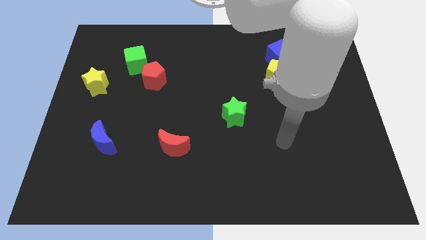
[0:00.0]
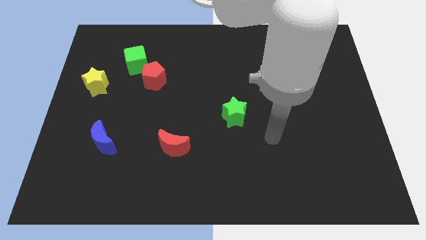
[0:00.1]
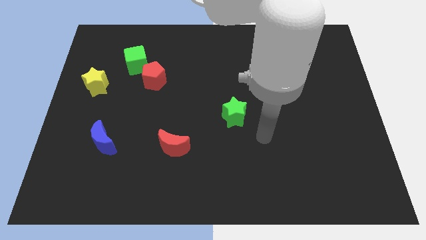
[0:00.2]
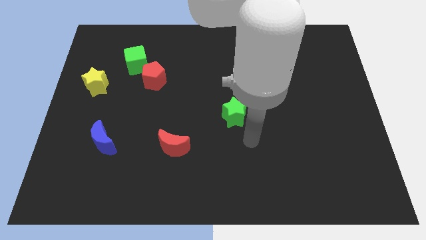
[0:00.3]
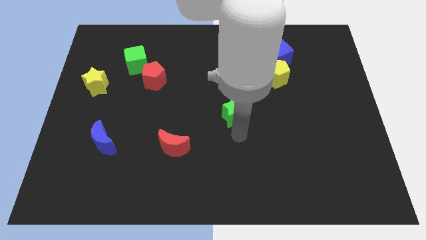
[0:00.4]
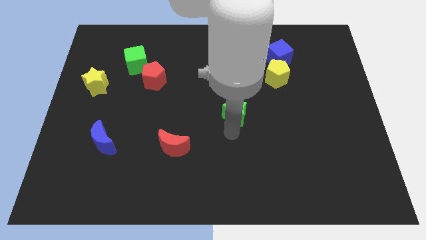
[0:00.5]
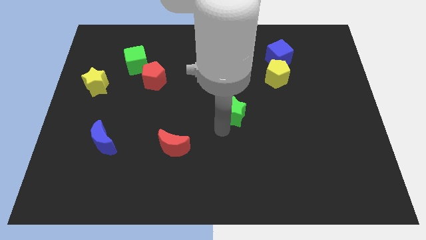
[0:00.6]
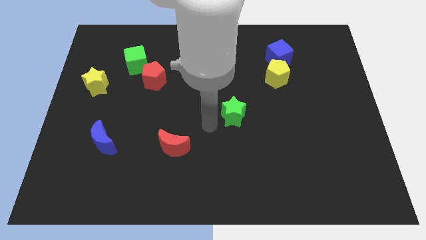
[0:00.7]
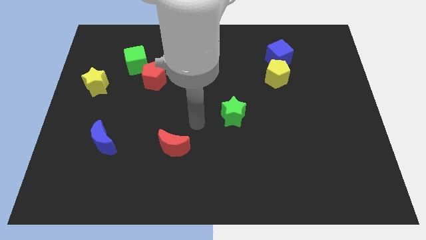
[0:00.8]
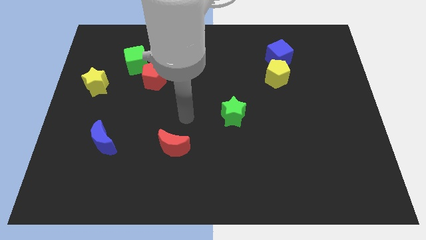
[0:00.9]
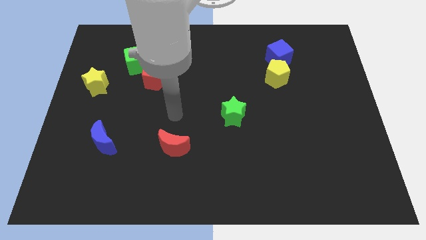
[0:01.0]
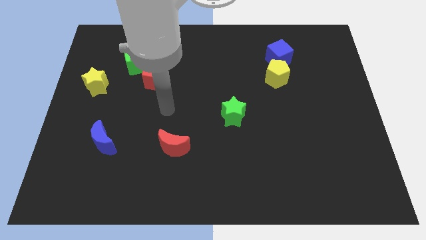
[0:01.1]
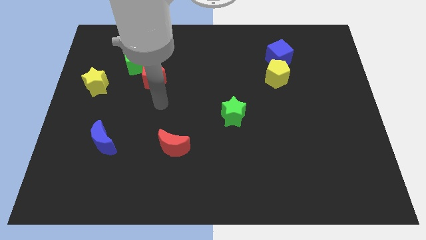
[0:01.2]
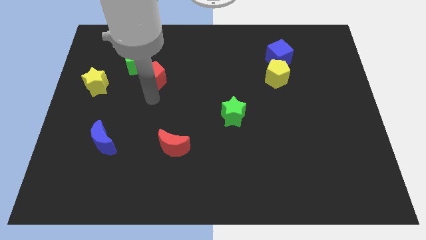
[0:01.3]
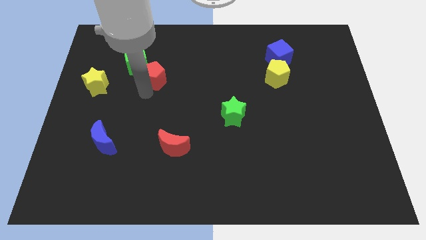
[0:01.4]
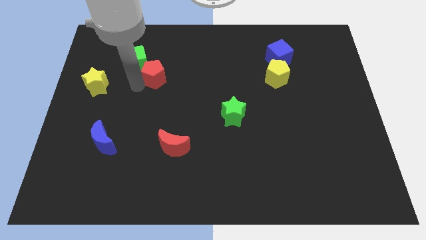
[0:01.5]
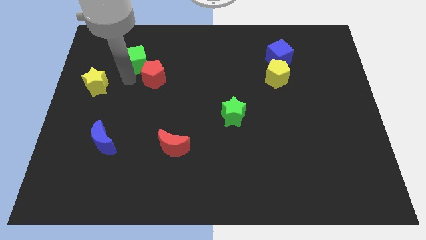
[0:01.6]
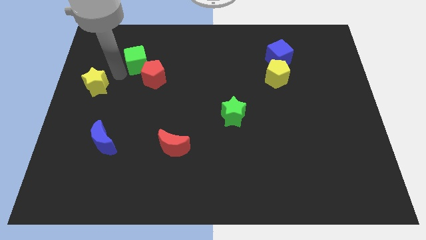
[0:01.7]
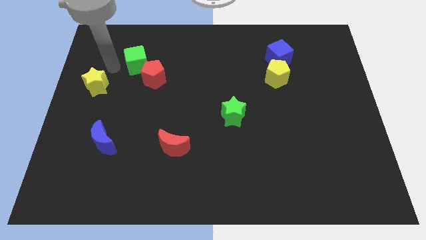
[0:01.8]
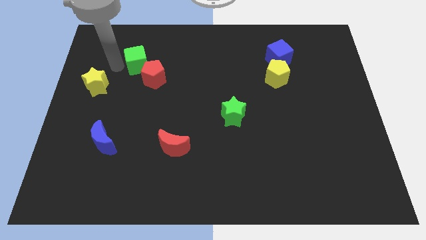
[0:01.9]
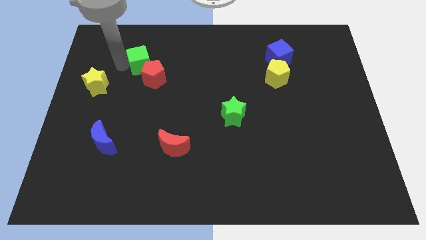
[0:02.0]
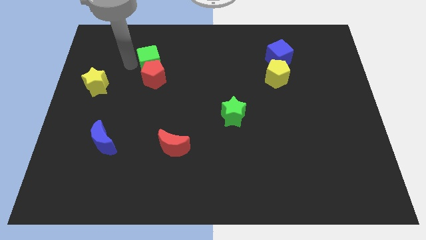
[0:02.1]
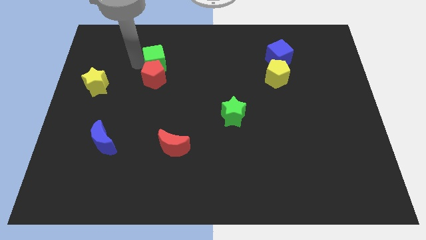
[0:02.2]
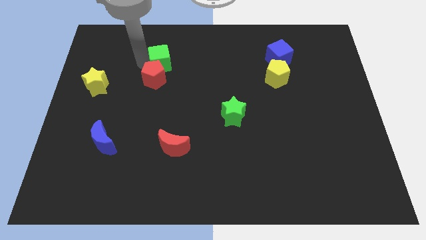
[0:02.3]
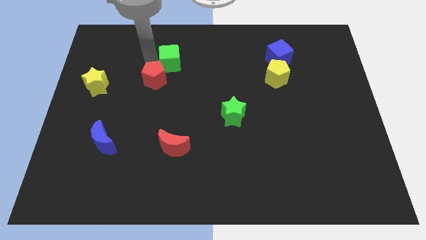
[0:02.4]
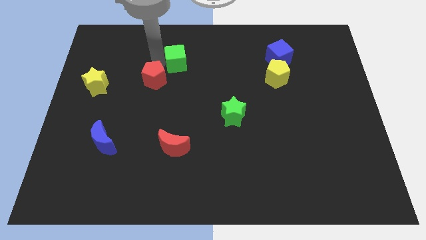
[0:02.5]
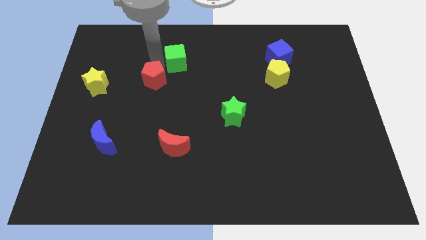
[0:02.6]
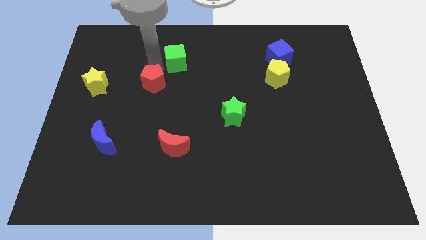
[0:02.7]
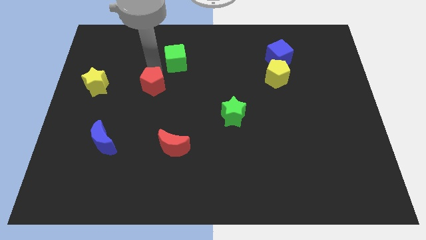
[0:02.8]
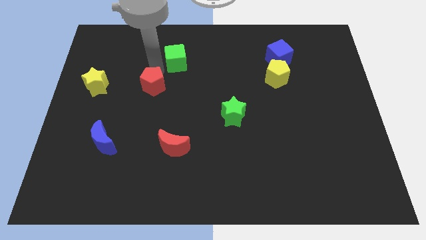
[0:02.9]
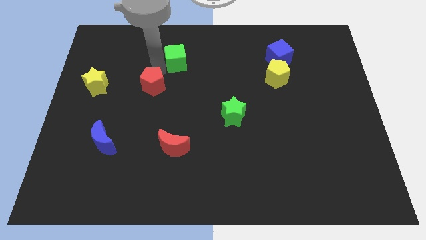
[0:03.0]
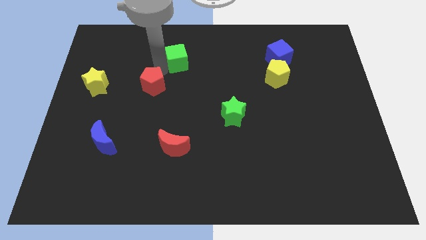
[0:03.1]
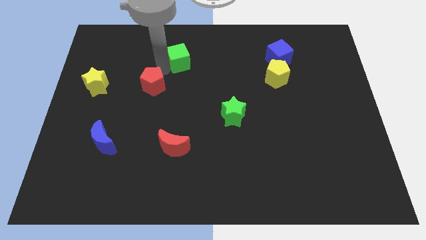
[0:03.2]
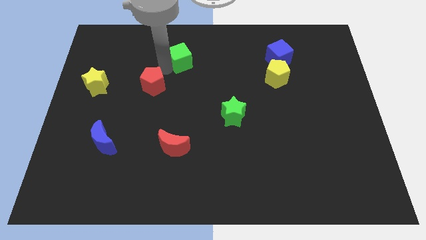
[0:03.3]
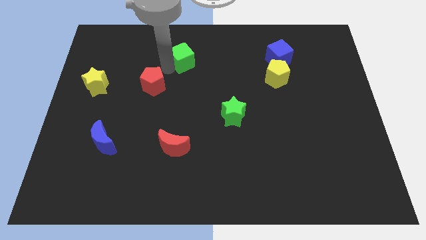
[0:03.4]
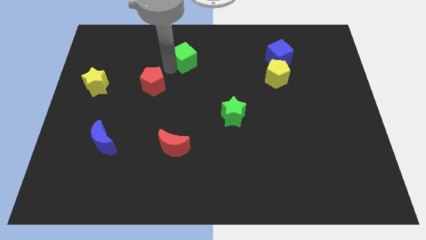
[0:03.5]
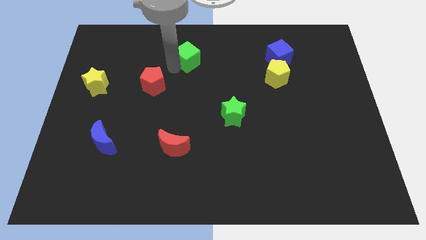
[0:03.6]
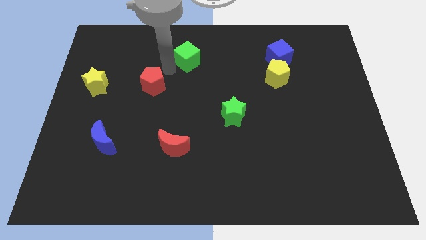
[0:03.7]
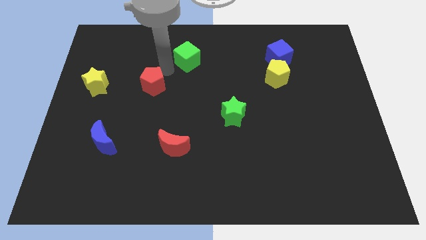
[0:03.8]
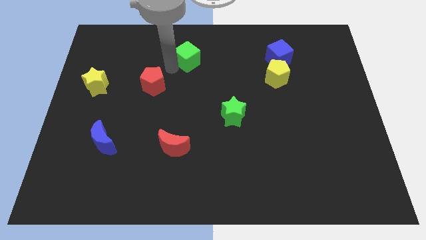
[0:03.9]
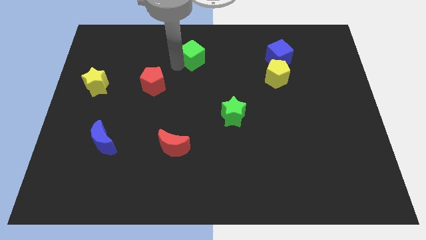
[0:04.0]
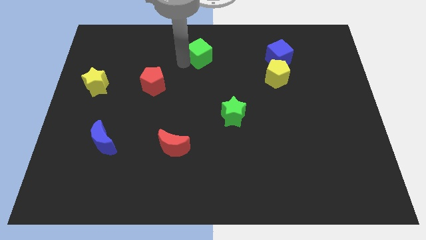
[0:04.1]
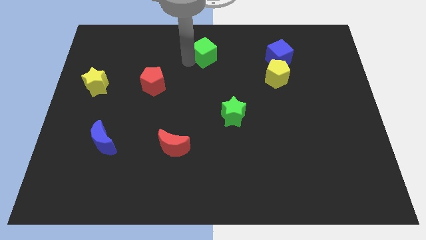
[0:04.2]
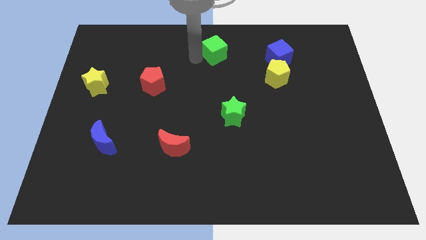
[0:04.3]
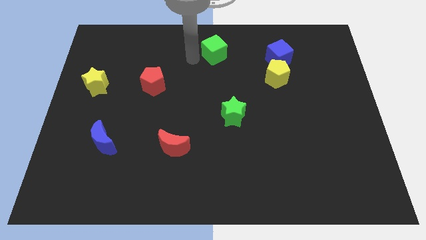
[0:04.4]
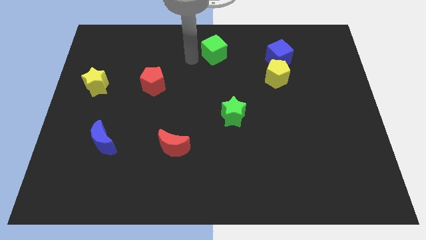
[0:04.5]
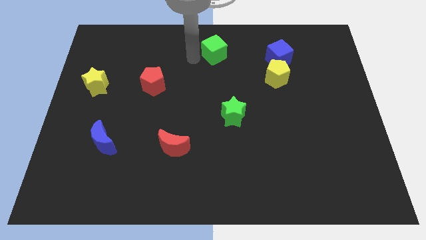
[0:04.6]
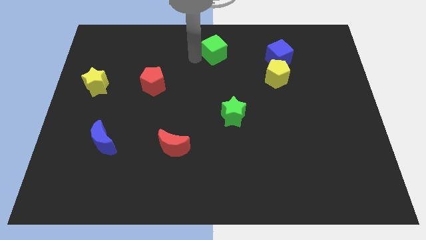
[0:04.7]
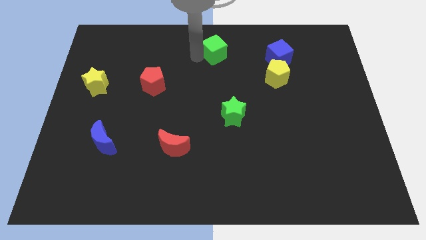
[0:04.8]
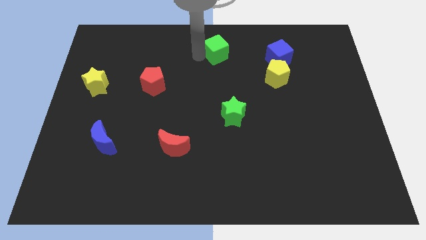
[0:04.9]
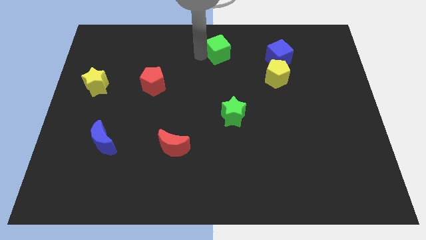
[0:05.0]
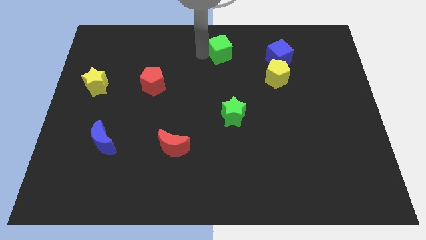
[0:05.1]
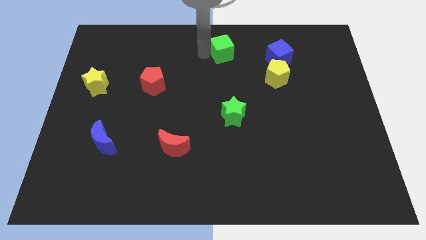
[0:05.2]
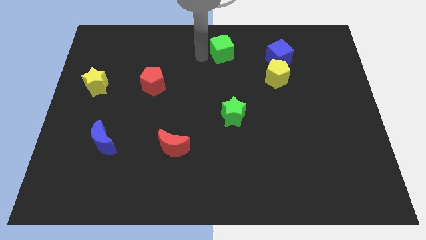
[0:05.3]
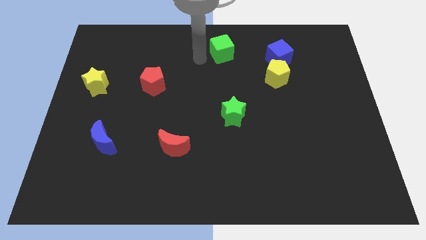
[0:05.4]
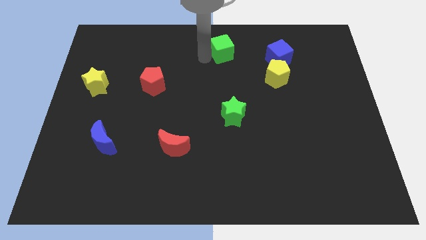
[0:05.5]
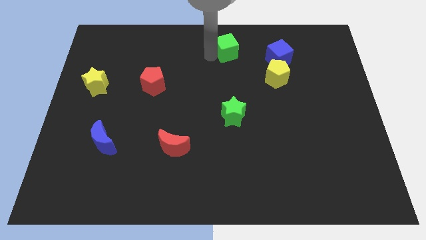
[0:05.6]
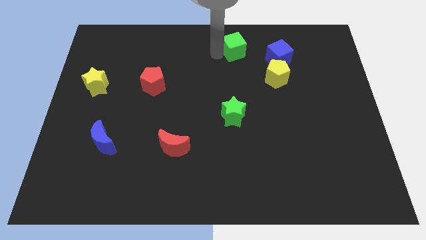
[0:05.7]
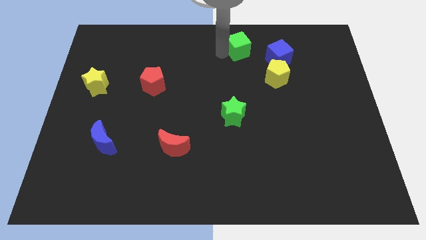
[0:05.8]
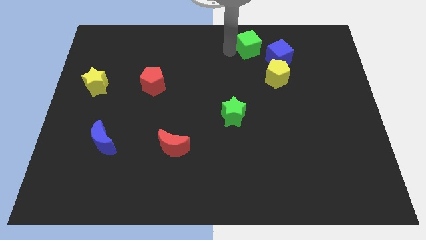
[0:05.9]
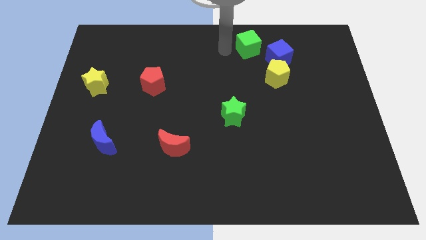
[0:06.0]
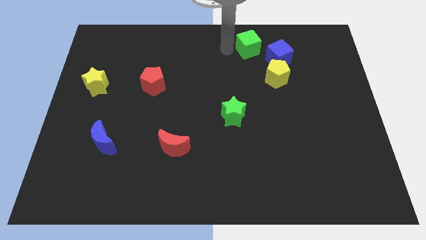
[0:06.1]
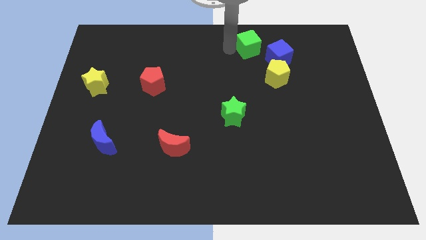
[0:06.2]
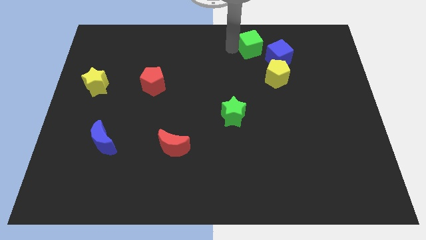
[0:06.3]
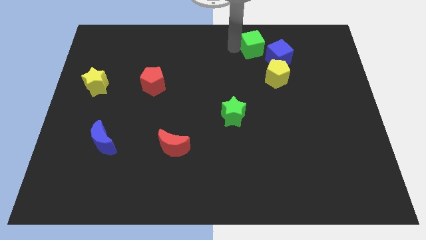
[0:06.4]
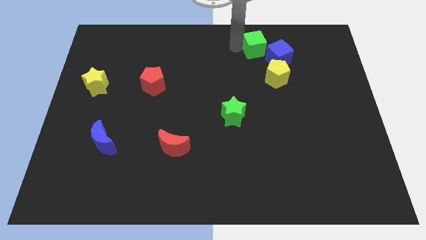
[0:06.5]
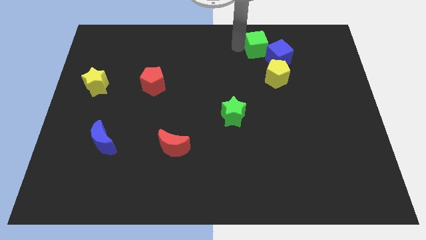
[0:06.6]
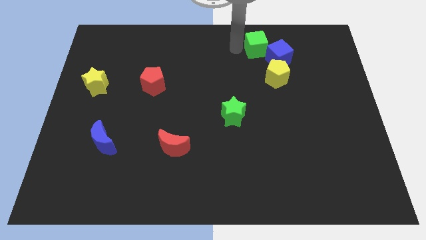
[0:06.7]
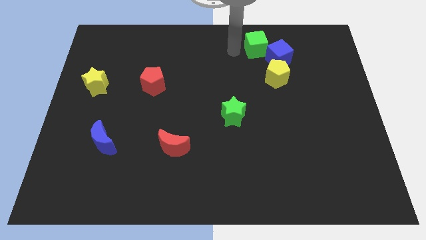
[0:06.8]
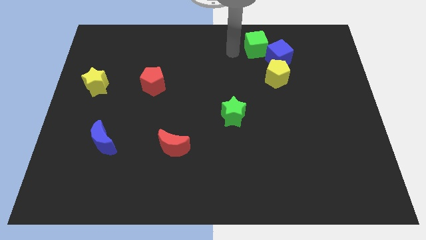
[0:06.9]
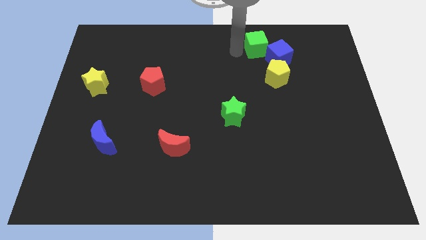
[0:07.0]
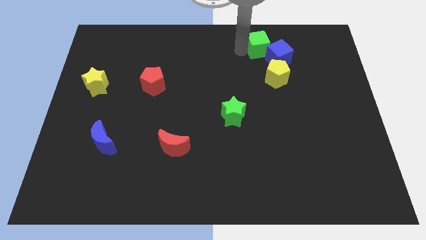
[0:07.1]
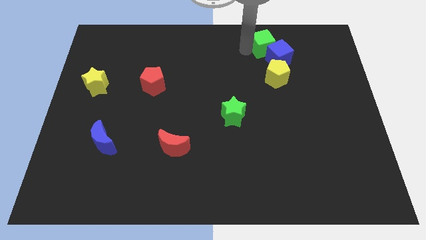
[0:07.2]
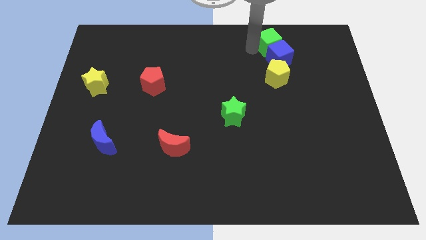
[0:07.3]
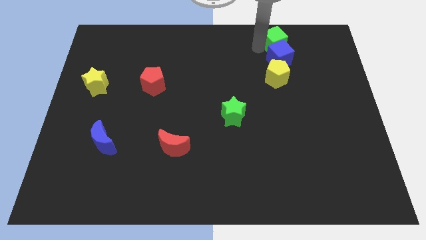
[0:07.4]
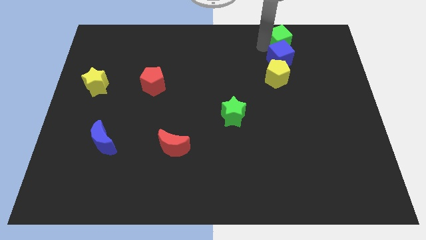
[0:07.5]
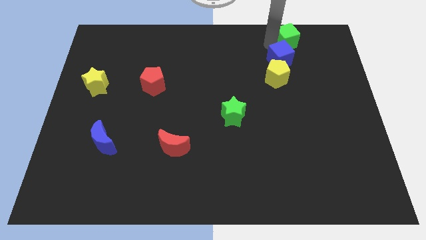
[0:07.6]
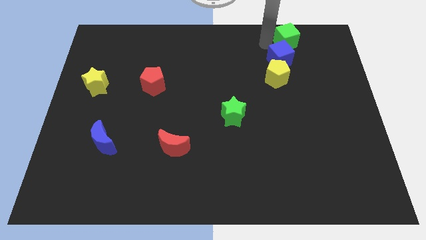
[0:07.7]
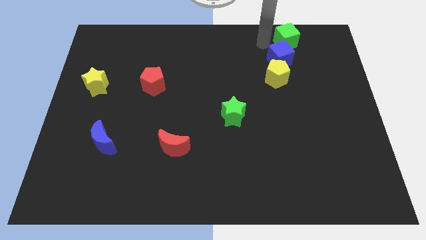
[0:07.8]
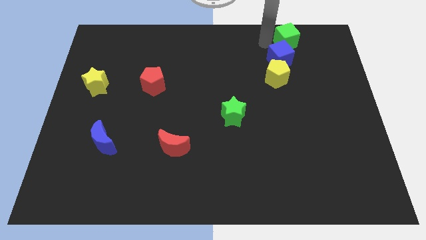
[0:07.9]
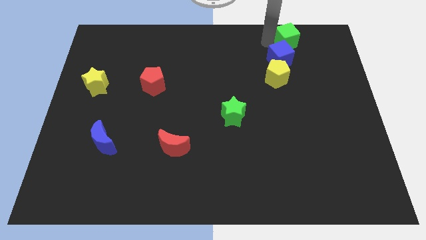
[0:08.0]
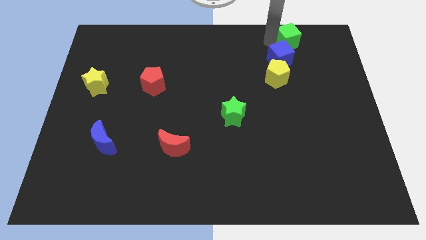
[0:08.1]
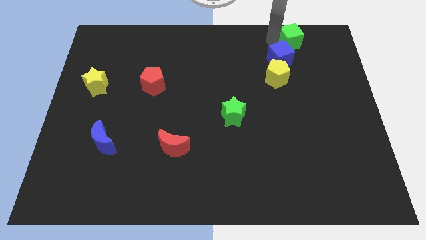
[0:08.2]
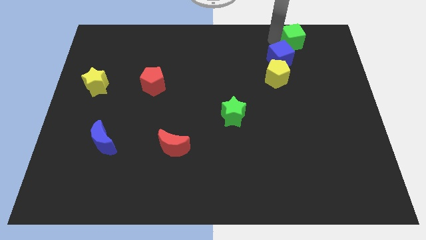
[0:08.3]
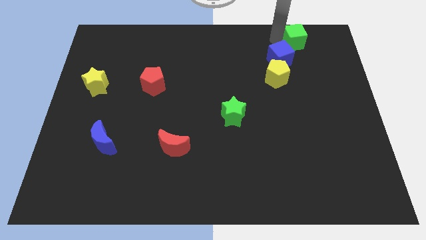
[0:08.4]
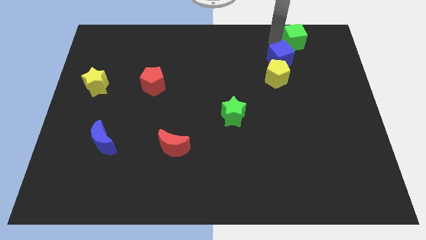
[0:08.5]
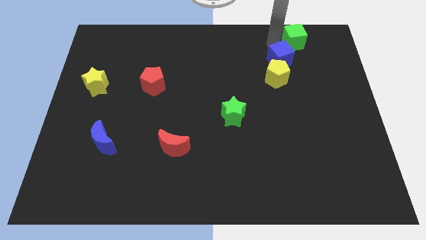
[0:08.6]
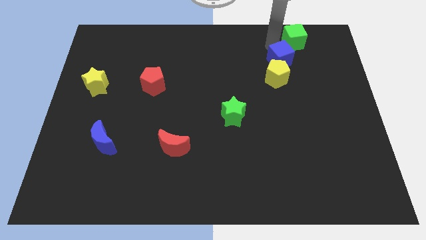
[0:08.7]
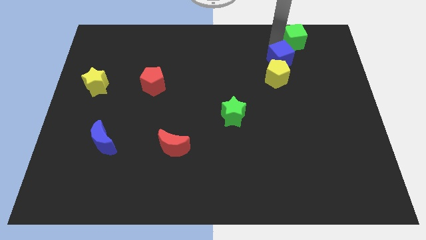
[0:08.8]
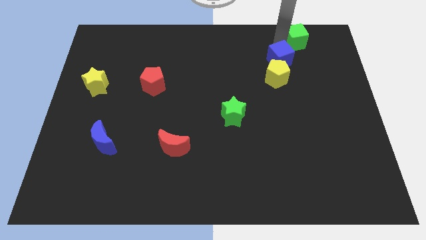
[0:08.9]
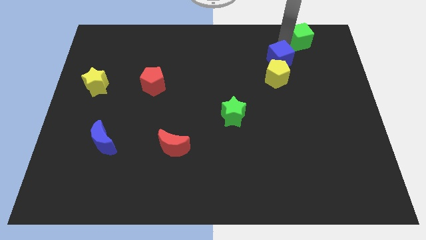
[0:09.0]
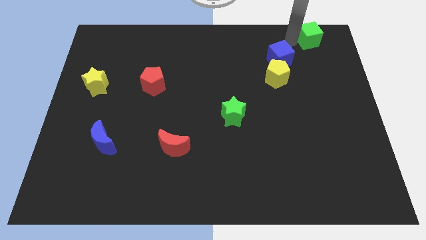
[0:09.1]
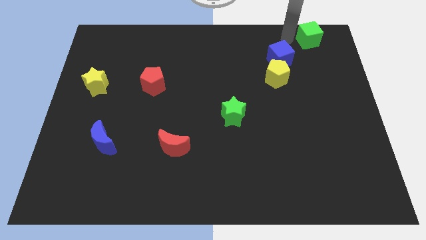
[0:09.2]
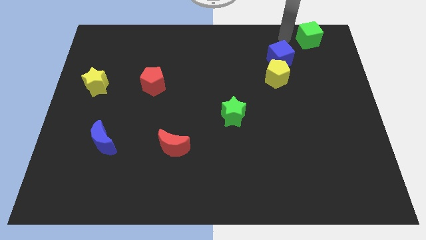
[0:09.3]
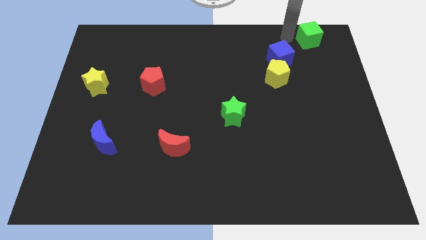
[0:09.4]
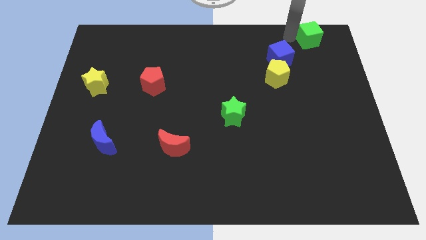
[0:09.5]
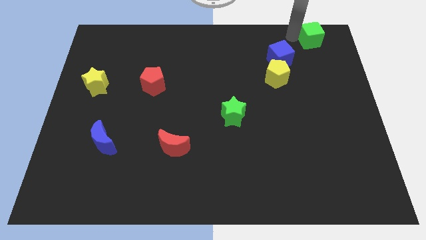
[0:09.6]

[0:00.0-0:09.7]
slide the green cube to the upper right corner
